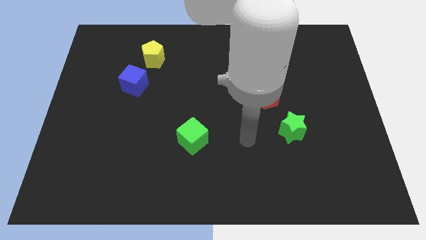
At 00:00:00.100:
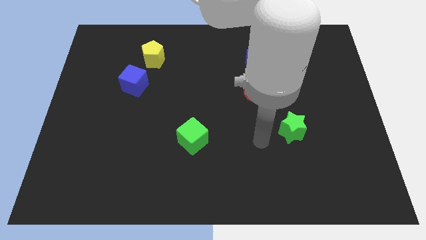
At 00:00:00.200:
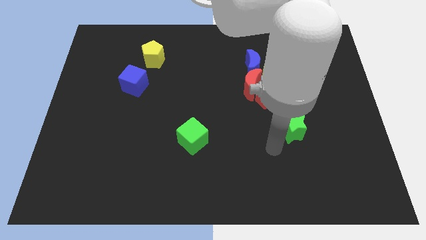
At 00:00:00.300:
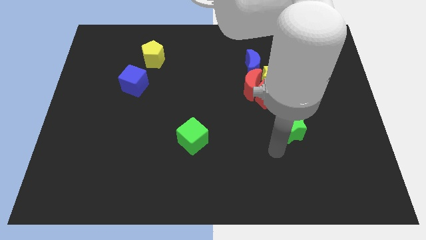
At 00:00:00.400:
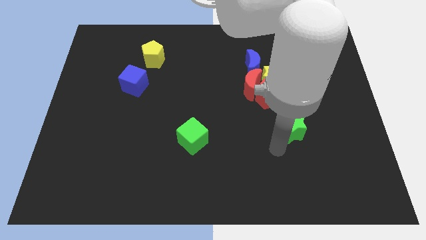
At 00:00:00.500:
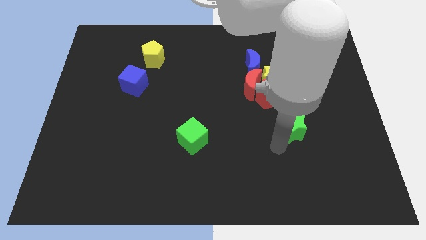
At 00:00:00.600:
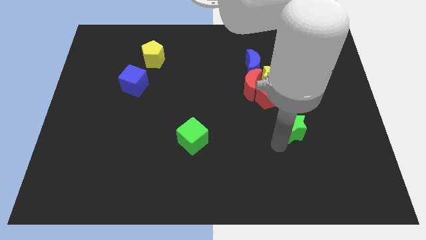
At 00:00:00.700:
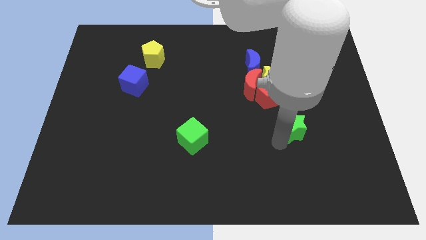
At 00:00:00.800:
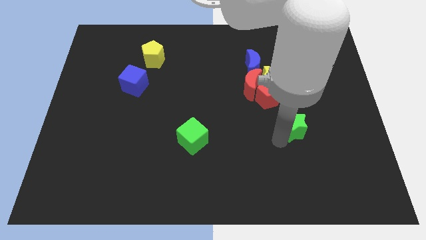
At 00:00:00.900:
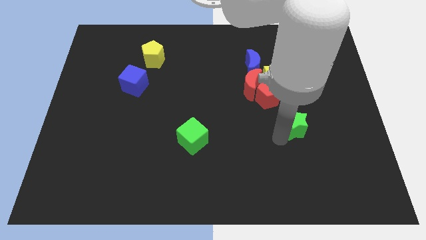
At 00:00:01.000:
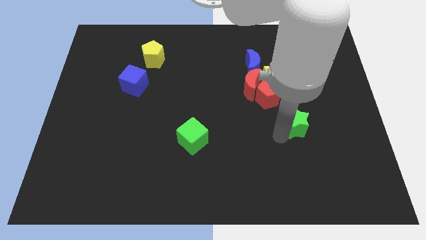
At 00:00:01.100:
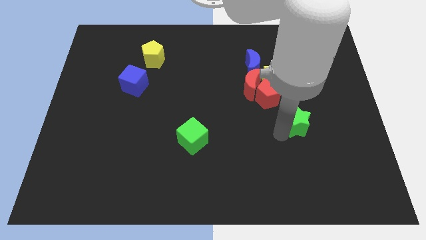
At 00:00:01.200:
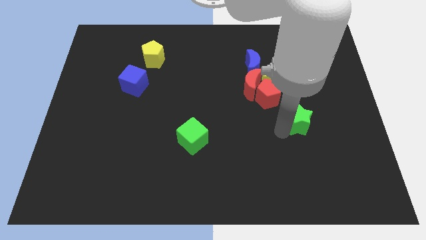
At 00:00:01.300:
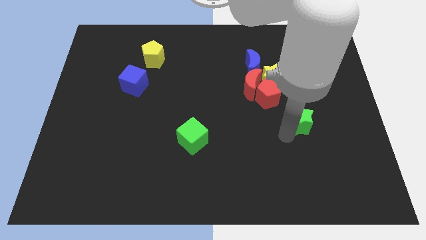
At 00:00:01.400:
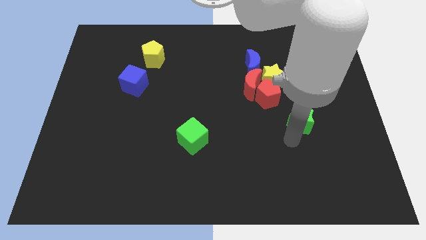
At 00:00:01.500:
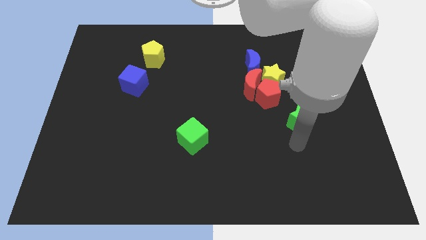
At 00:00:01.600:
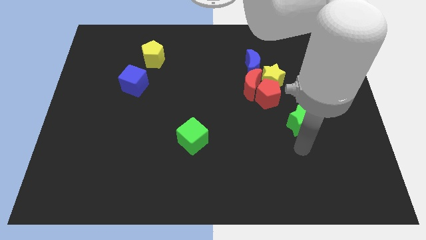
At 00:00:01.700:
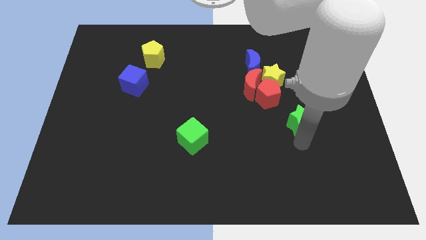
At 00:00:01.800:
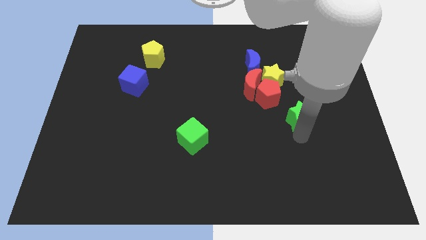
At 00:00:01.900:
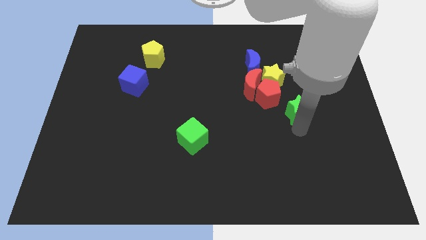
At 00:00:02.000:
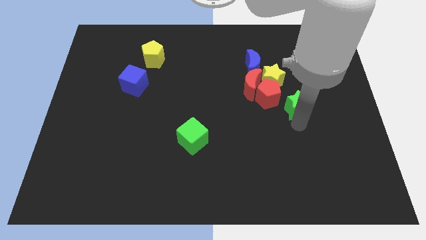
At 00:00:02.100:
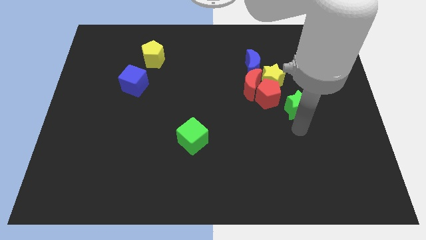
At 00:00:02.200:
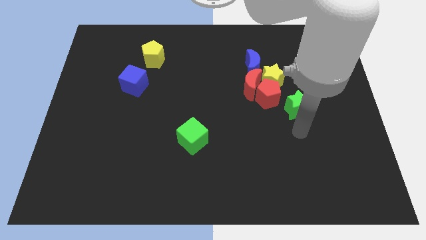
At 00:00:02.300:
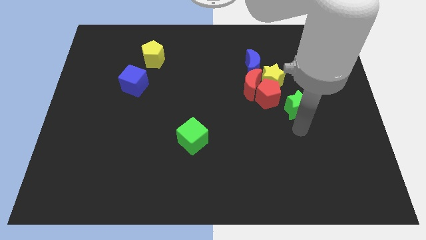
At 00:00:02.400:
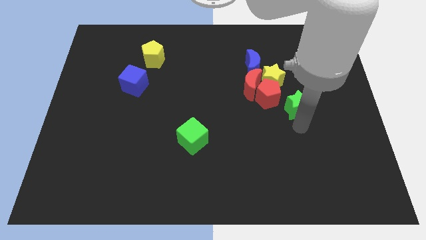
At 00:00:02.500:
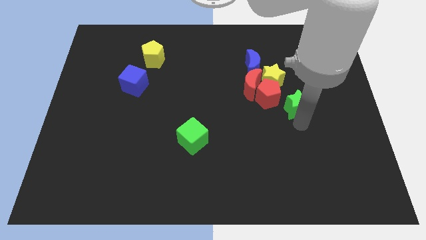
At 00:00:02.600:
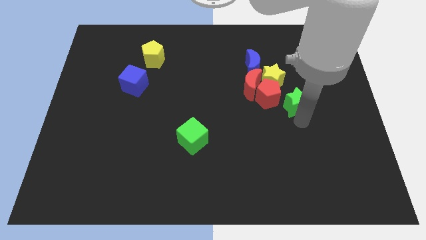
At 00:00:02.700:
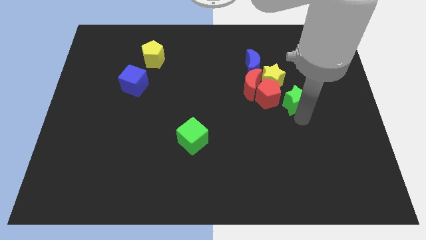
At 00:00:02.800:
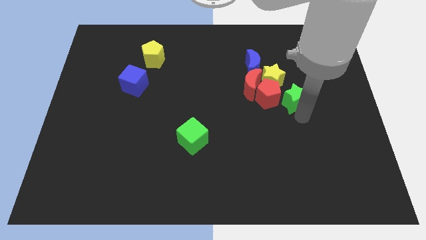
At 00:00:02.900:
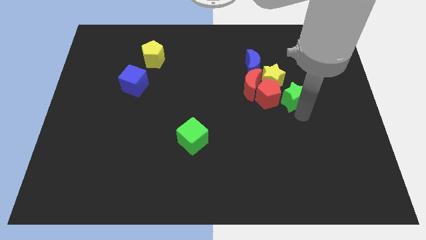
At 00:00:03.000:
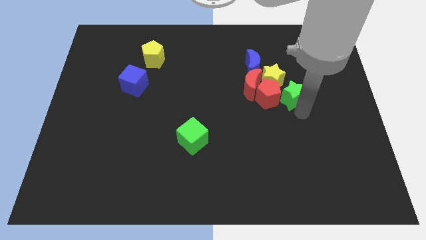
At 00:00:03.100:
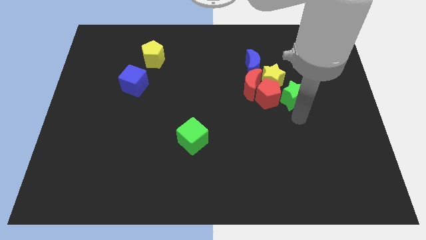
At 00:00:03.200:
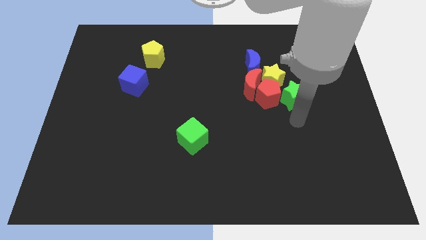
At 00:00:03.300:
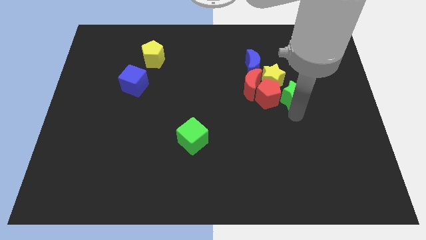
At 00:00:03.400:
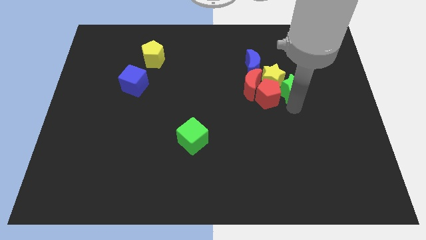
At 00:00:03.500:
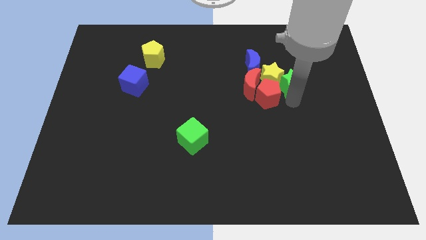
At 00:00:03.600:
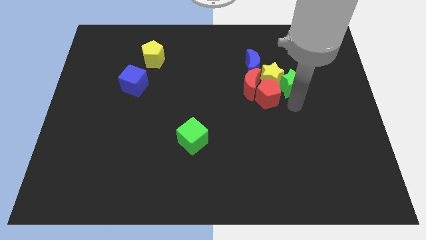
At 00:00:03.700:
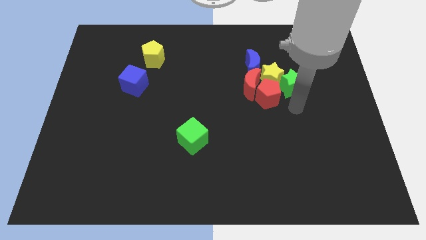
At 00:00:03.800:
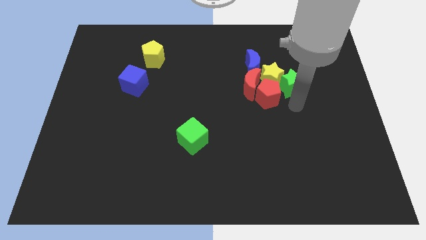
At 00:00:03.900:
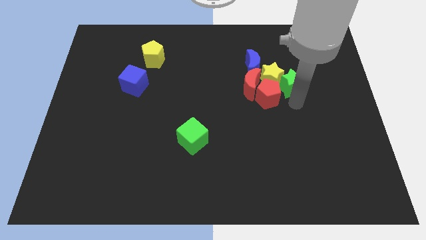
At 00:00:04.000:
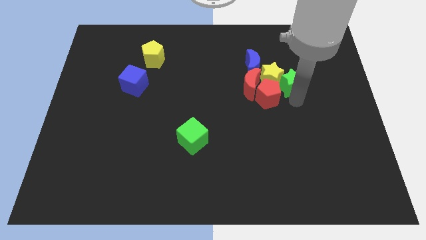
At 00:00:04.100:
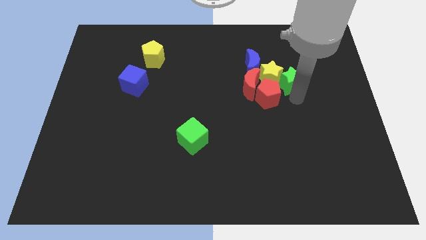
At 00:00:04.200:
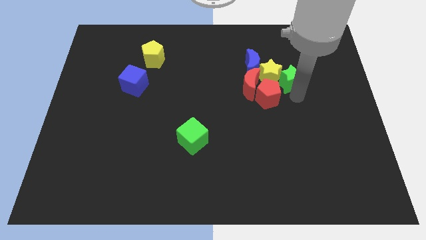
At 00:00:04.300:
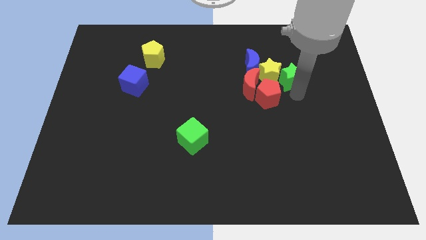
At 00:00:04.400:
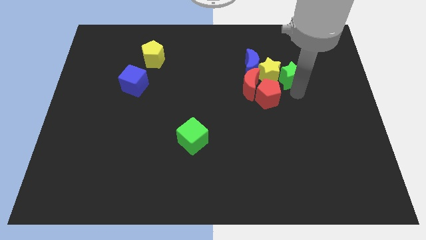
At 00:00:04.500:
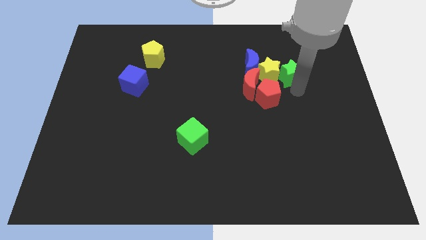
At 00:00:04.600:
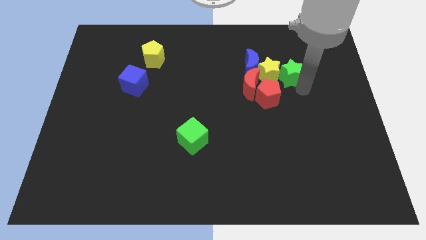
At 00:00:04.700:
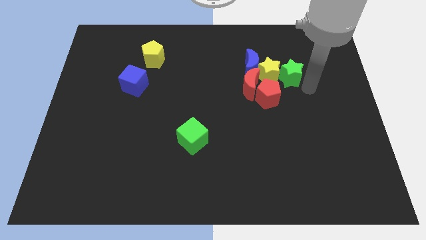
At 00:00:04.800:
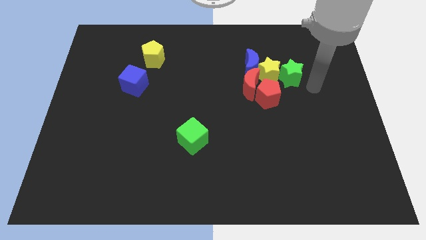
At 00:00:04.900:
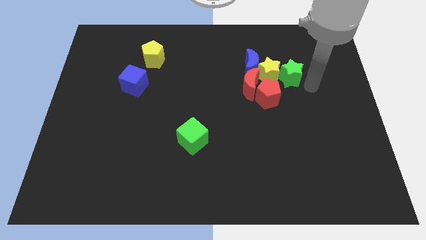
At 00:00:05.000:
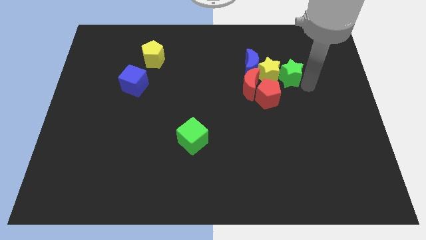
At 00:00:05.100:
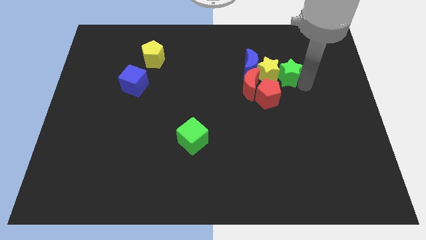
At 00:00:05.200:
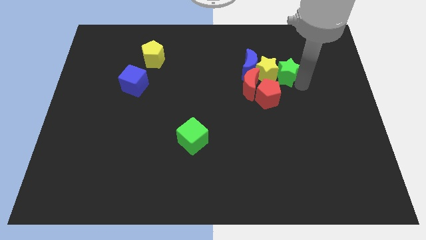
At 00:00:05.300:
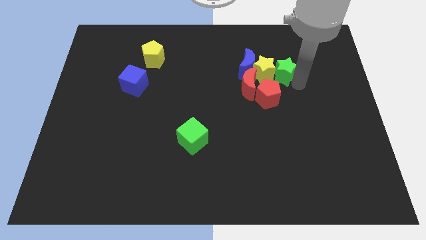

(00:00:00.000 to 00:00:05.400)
push the green star to the top of the red pentagon

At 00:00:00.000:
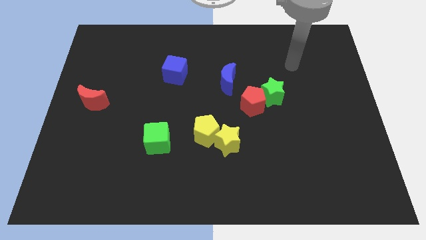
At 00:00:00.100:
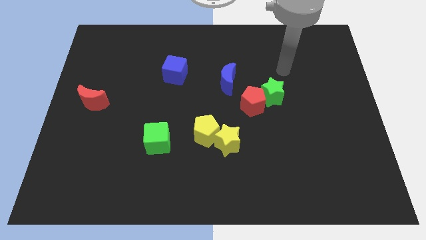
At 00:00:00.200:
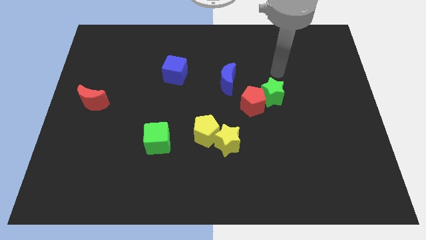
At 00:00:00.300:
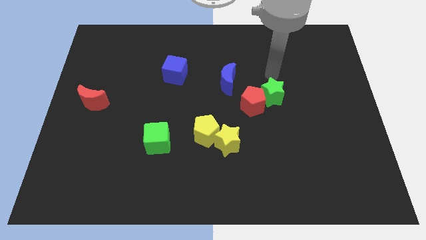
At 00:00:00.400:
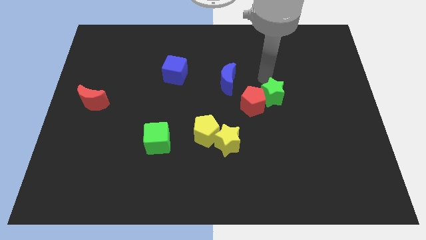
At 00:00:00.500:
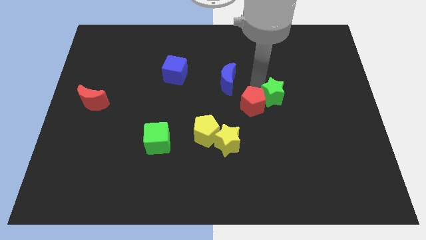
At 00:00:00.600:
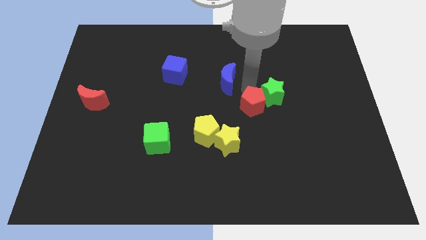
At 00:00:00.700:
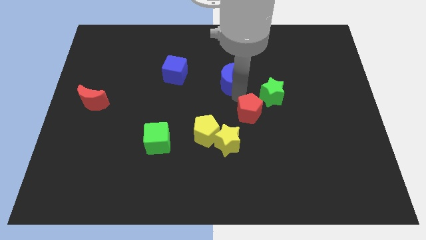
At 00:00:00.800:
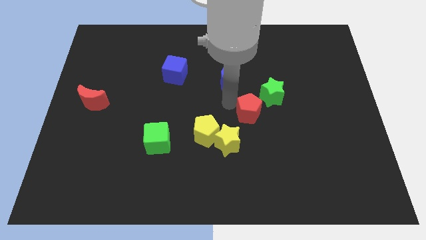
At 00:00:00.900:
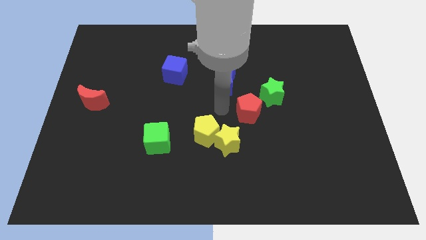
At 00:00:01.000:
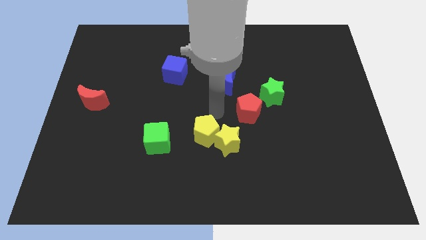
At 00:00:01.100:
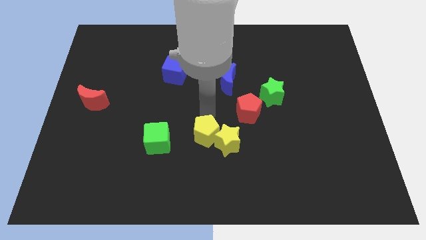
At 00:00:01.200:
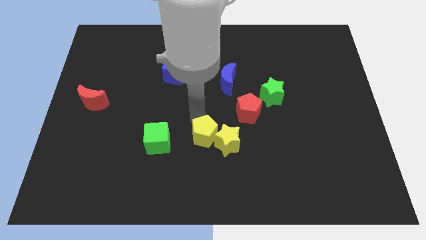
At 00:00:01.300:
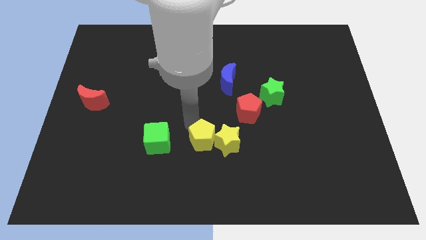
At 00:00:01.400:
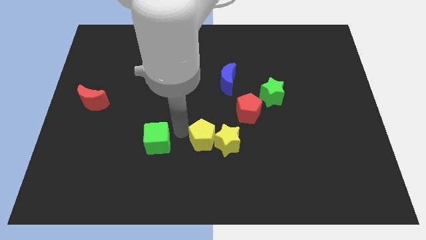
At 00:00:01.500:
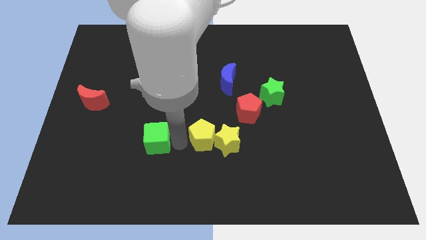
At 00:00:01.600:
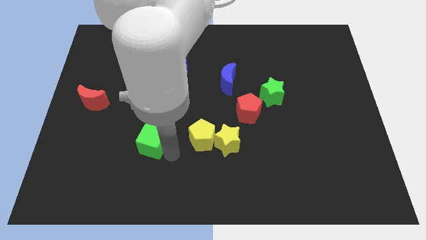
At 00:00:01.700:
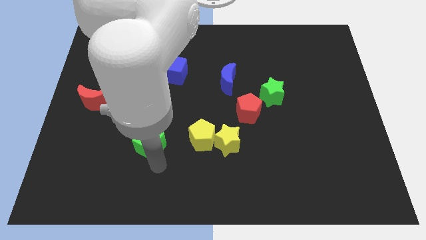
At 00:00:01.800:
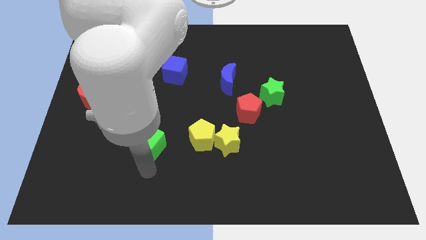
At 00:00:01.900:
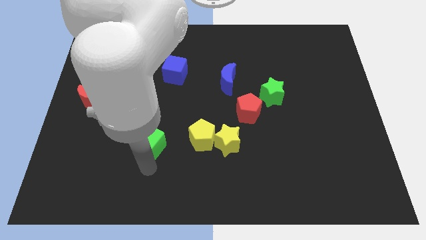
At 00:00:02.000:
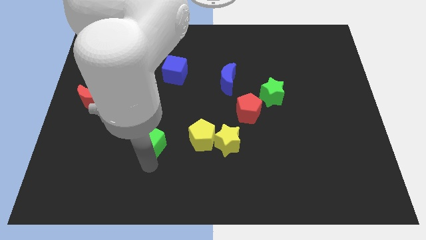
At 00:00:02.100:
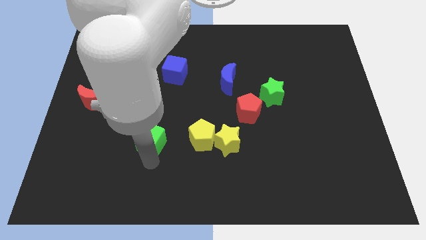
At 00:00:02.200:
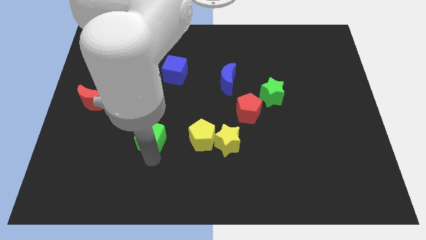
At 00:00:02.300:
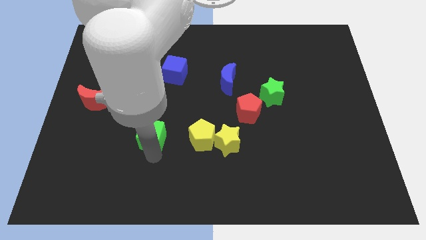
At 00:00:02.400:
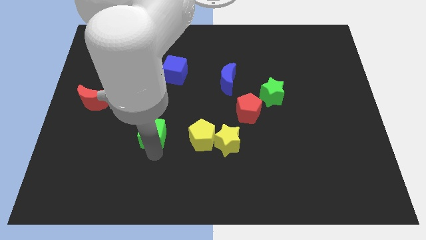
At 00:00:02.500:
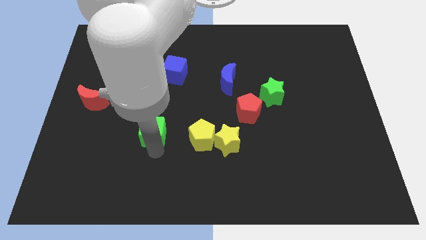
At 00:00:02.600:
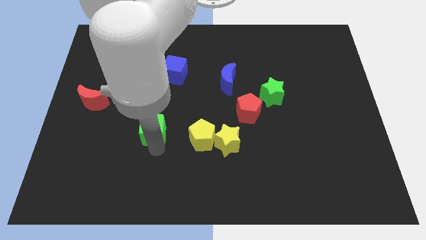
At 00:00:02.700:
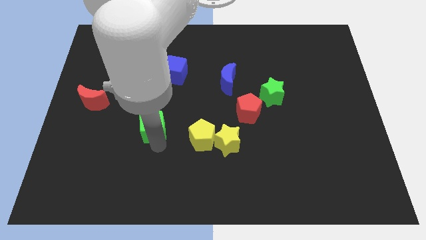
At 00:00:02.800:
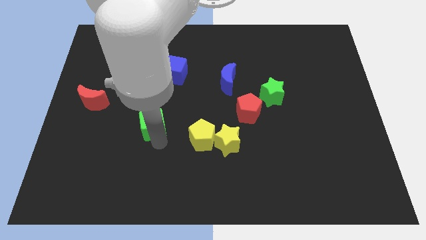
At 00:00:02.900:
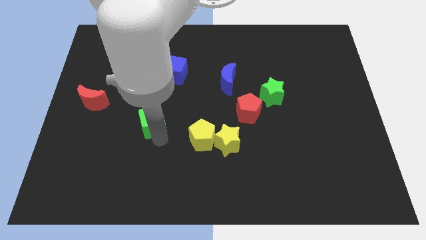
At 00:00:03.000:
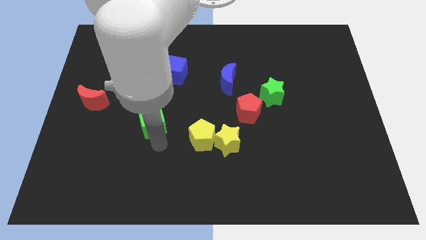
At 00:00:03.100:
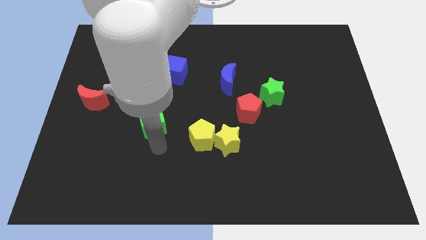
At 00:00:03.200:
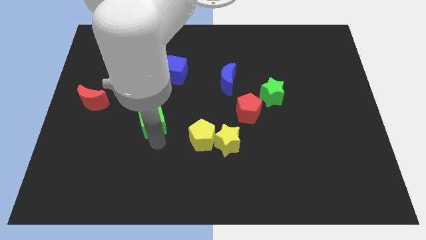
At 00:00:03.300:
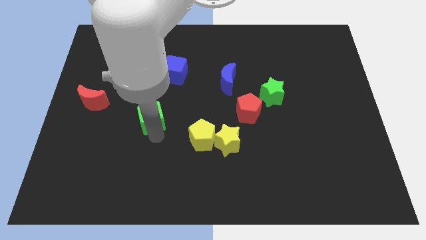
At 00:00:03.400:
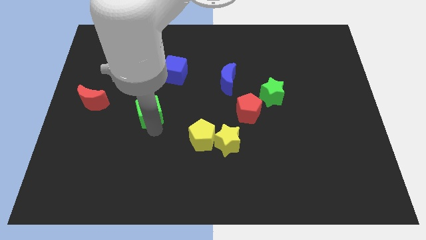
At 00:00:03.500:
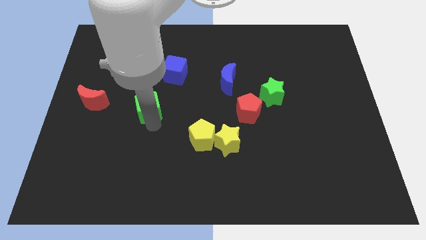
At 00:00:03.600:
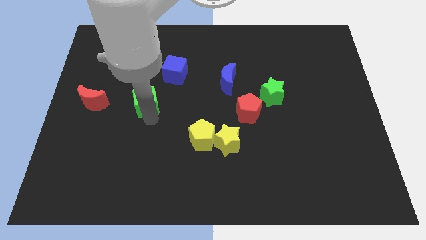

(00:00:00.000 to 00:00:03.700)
slide the green cube to the bottom left side of the blue cube
